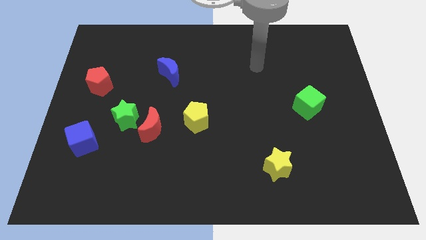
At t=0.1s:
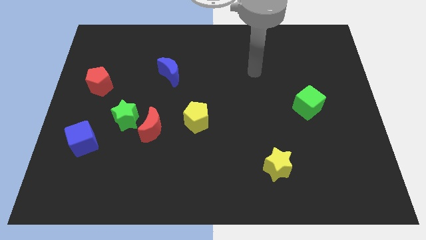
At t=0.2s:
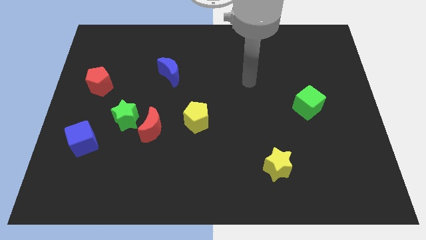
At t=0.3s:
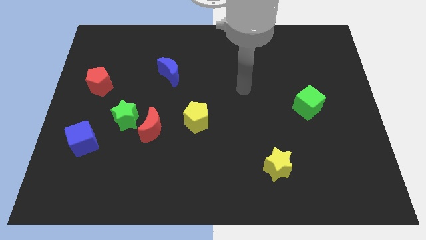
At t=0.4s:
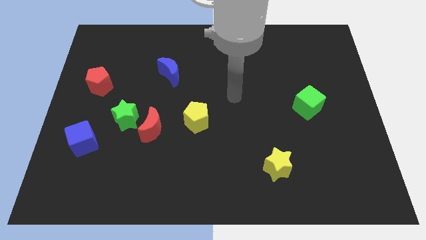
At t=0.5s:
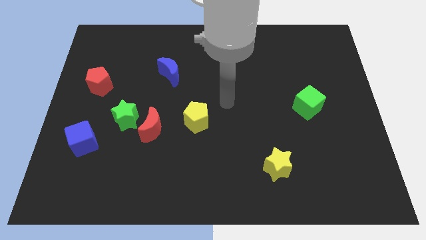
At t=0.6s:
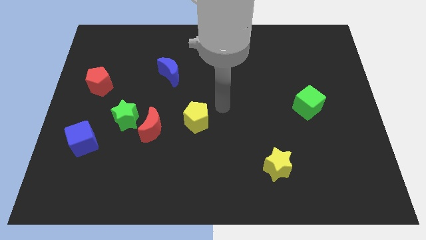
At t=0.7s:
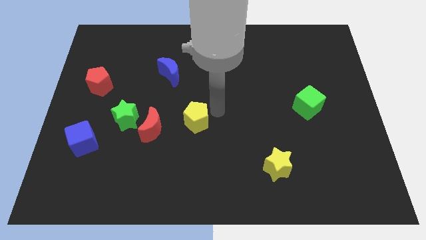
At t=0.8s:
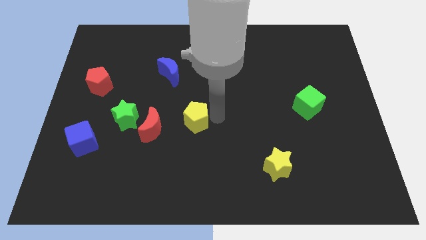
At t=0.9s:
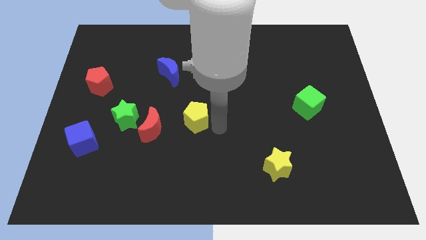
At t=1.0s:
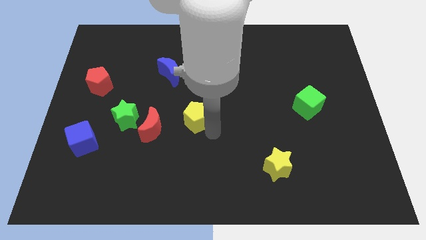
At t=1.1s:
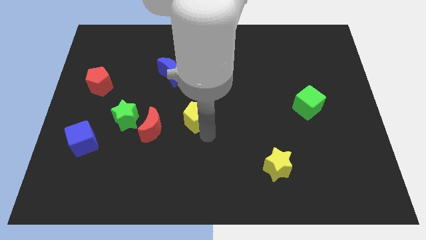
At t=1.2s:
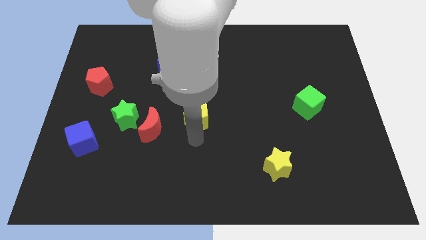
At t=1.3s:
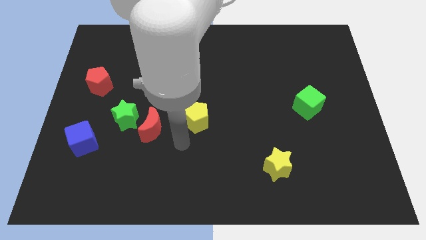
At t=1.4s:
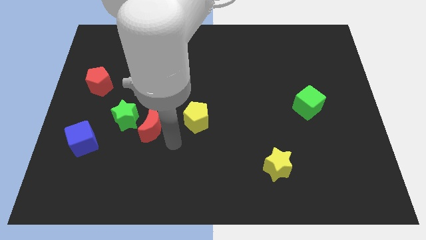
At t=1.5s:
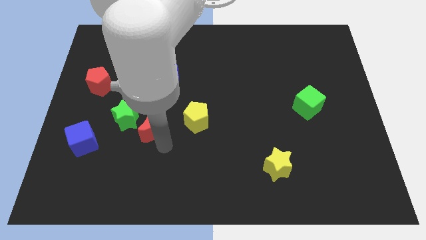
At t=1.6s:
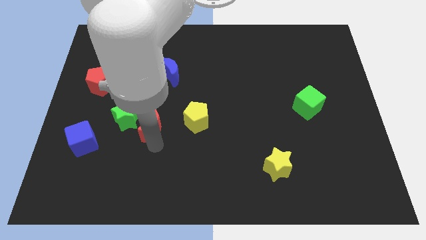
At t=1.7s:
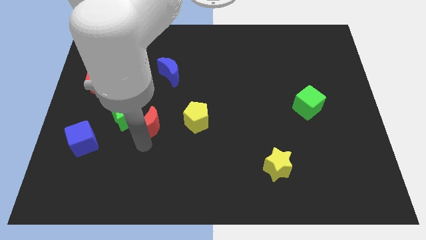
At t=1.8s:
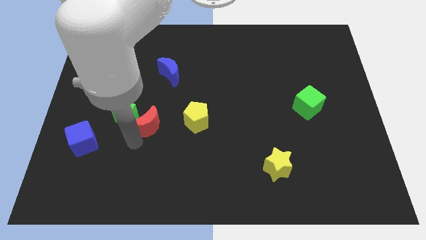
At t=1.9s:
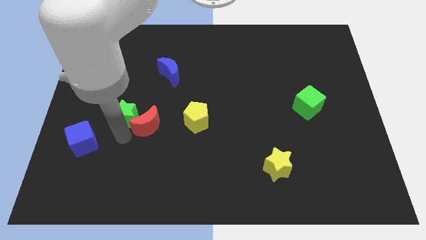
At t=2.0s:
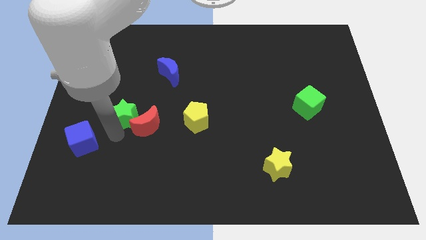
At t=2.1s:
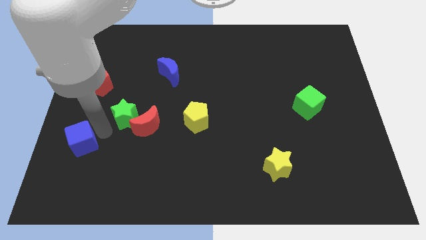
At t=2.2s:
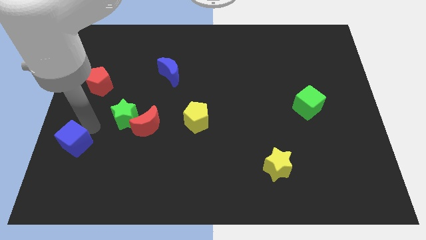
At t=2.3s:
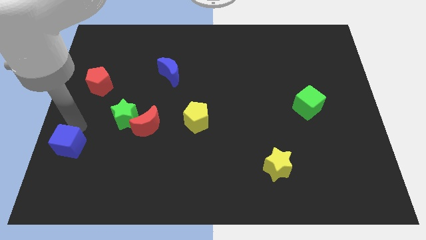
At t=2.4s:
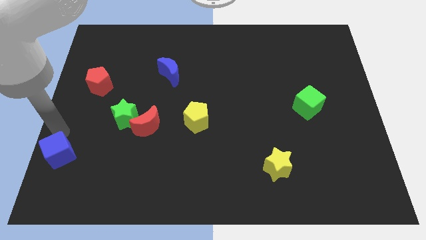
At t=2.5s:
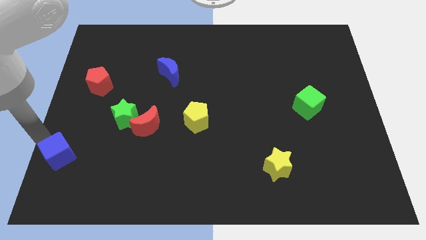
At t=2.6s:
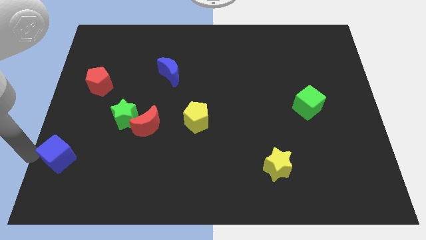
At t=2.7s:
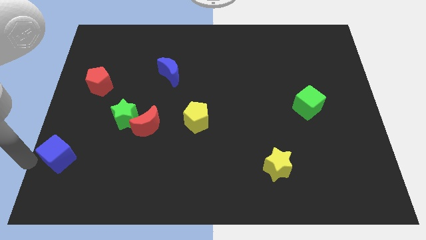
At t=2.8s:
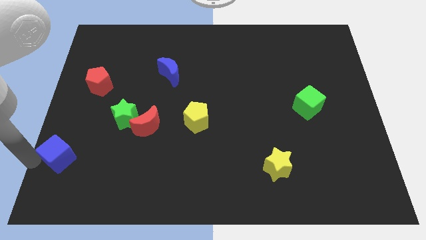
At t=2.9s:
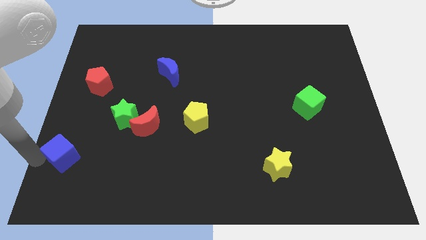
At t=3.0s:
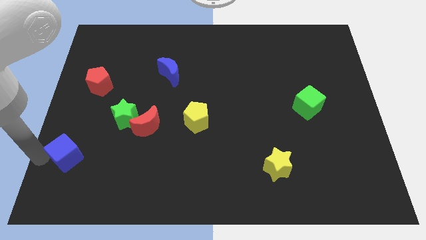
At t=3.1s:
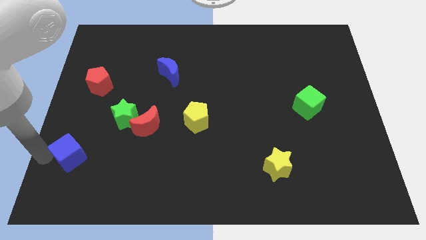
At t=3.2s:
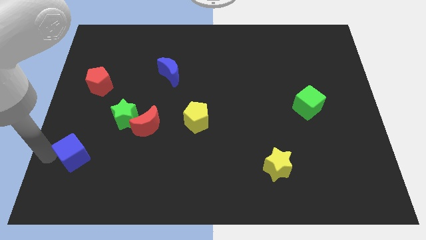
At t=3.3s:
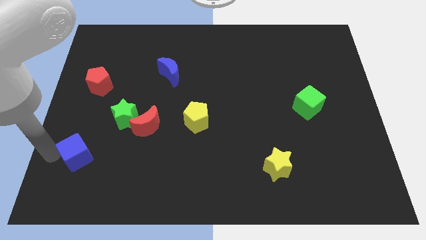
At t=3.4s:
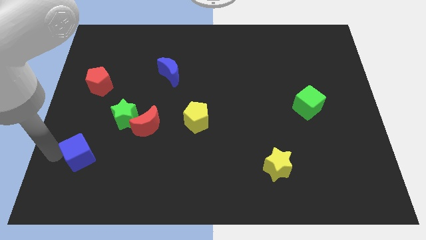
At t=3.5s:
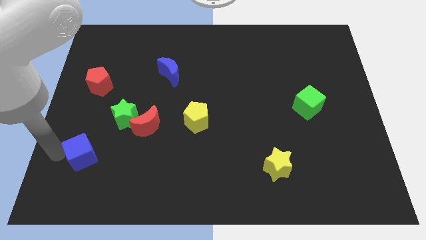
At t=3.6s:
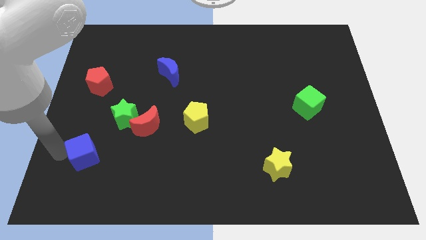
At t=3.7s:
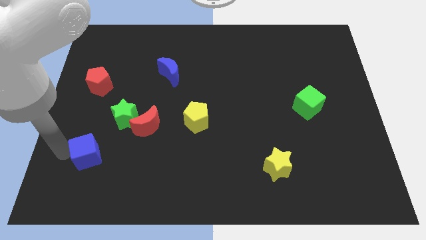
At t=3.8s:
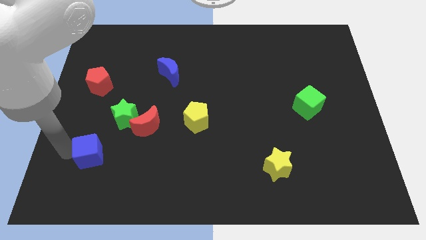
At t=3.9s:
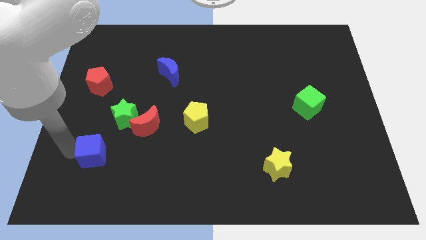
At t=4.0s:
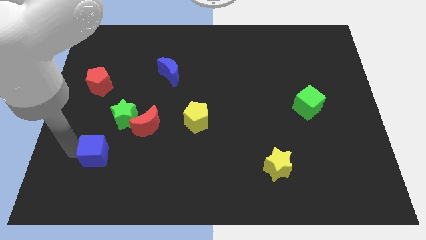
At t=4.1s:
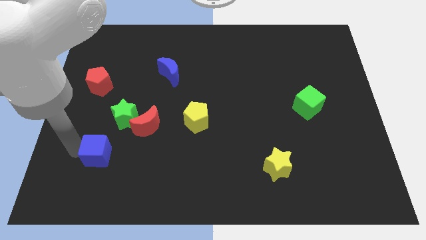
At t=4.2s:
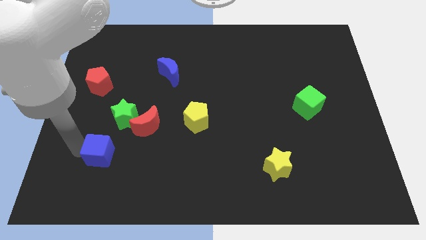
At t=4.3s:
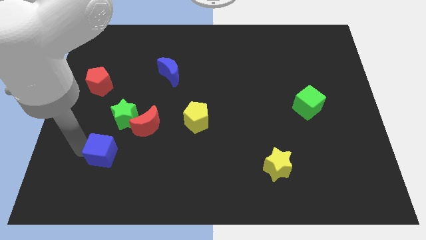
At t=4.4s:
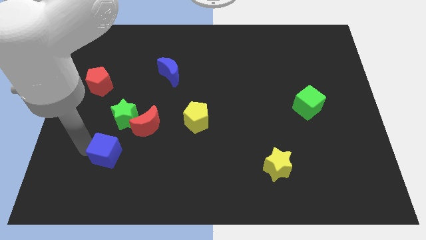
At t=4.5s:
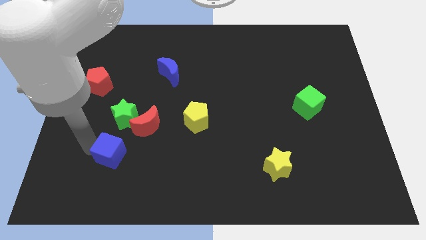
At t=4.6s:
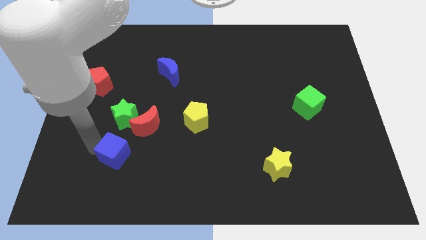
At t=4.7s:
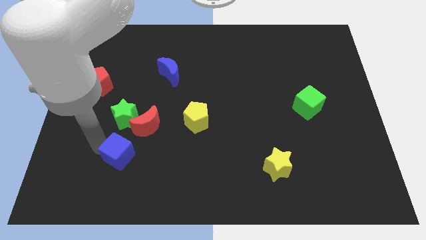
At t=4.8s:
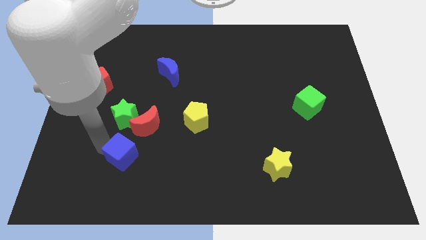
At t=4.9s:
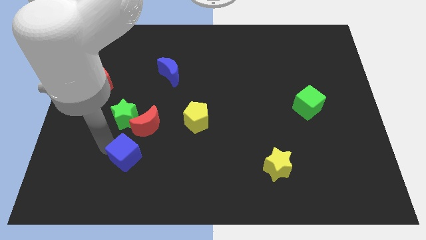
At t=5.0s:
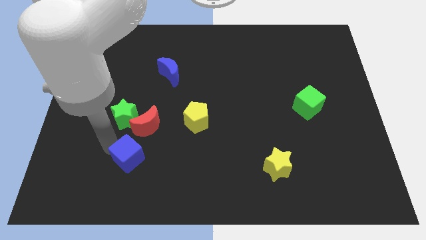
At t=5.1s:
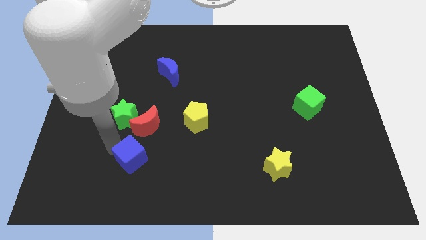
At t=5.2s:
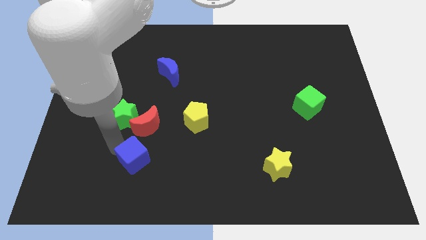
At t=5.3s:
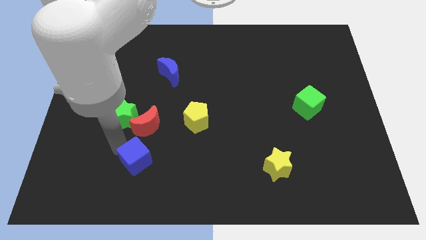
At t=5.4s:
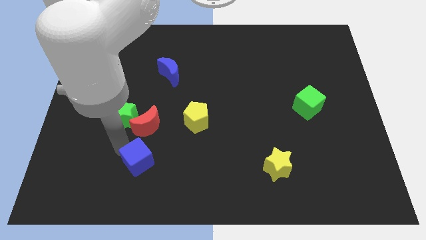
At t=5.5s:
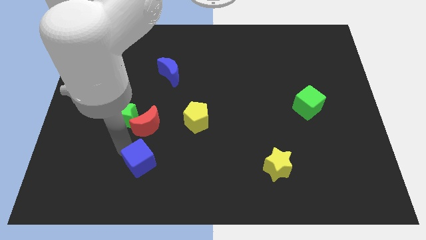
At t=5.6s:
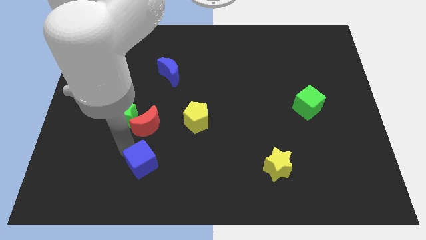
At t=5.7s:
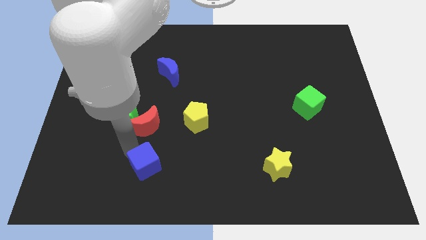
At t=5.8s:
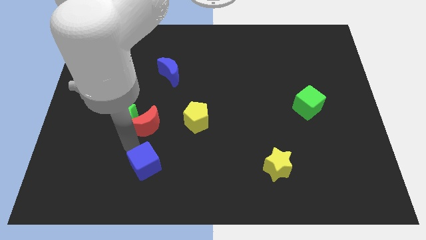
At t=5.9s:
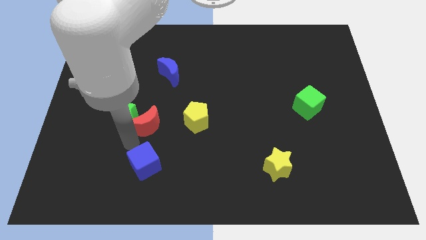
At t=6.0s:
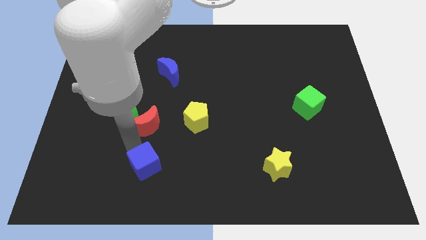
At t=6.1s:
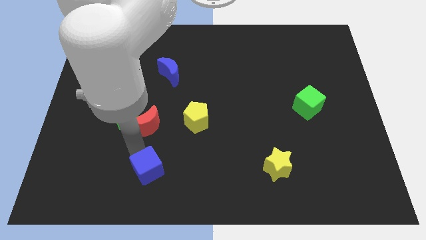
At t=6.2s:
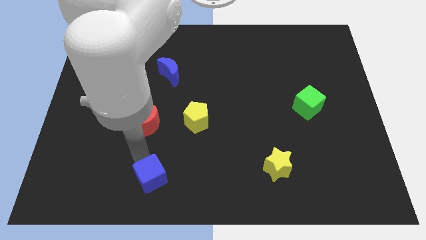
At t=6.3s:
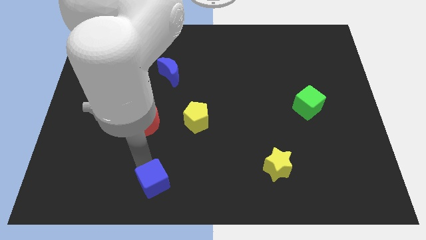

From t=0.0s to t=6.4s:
push the blue cube to the bottom
